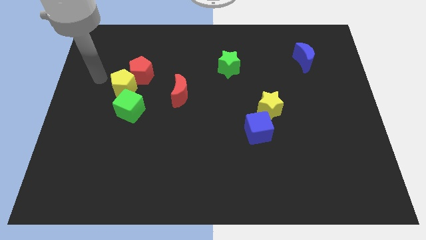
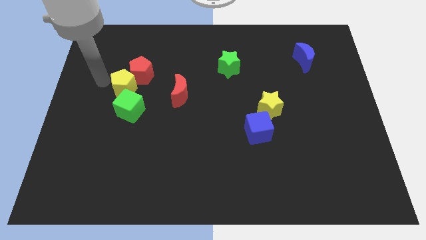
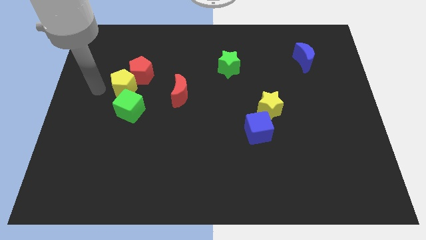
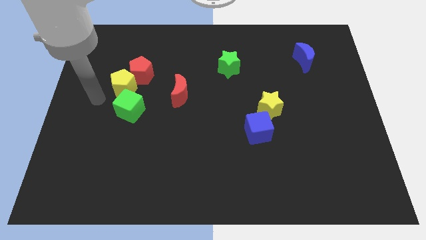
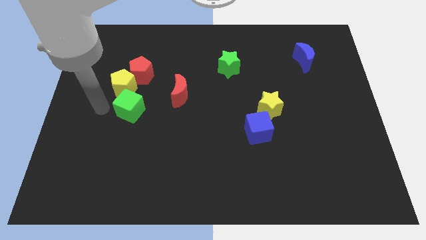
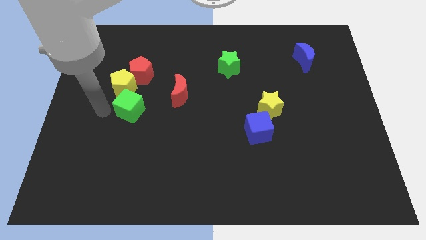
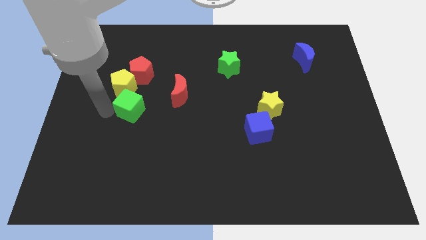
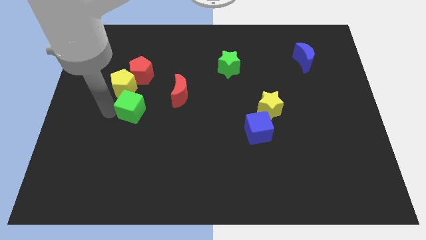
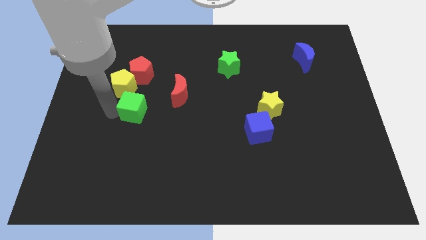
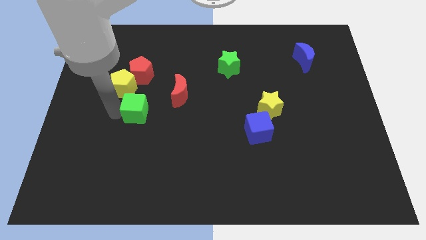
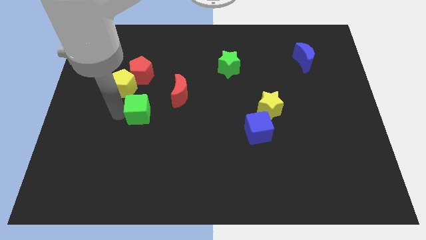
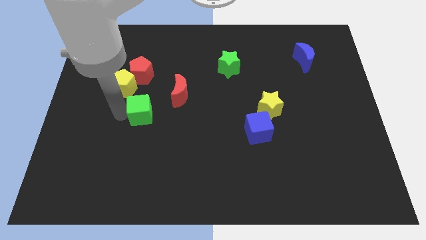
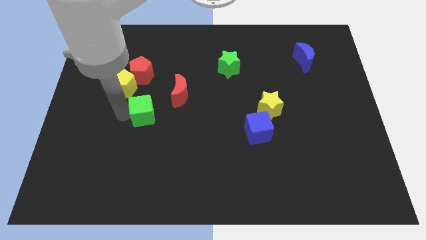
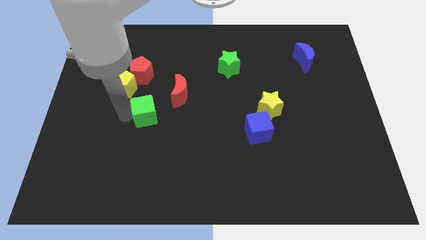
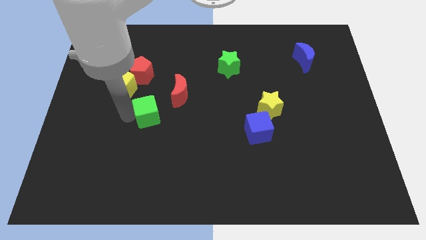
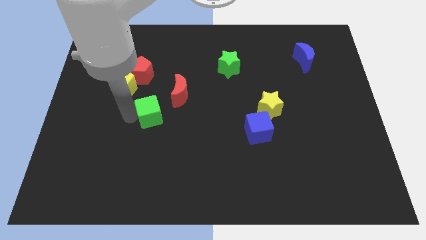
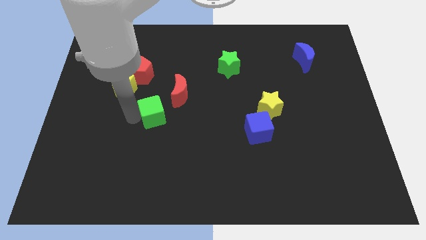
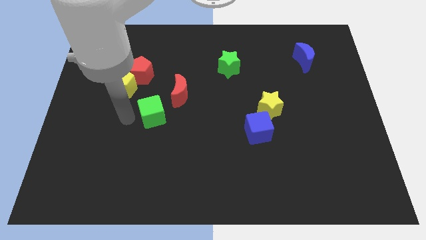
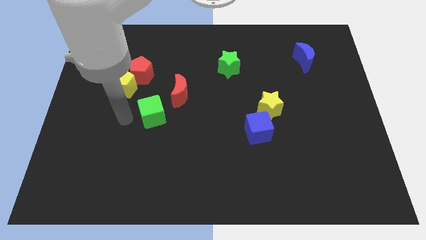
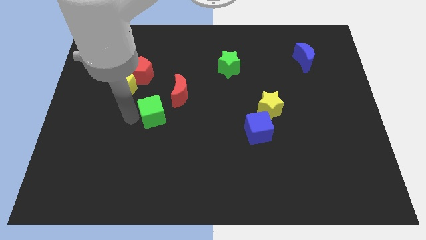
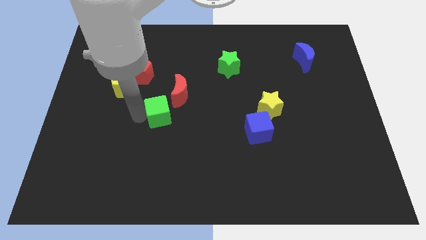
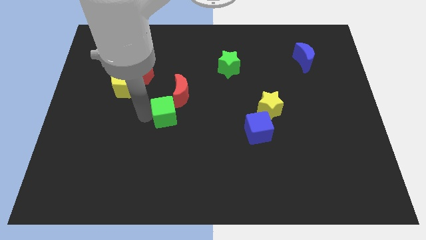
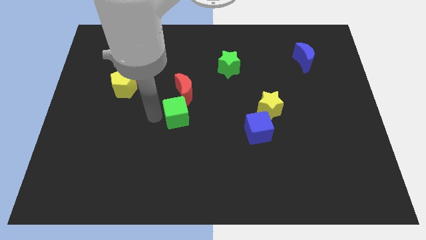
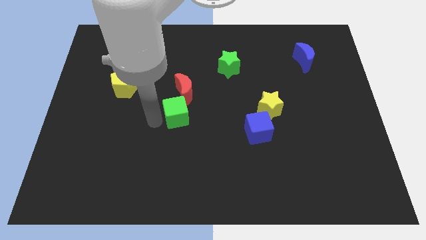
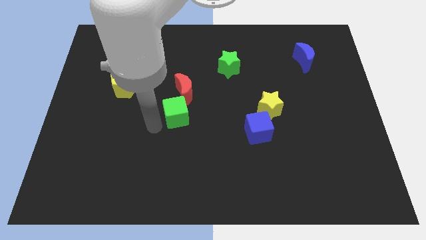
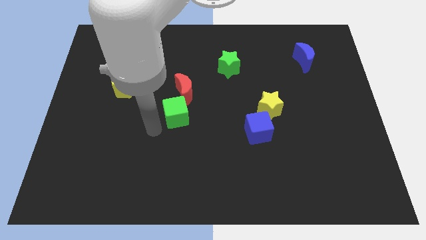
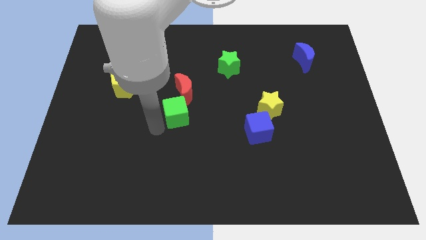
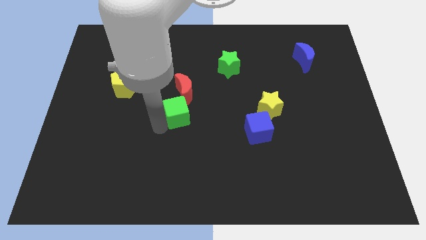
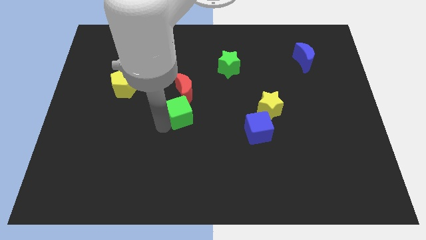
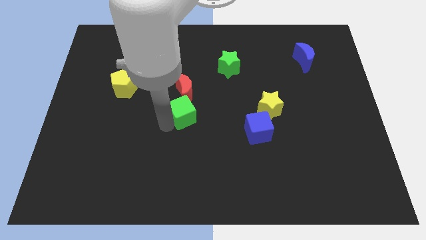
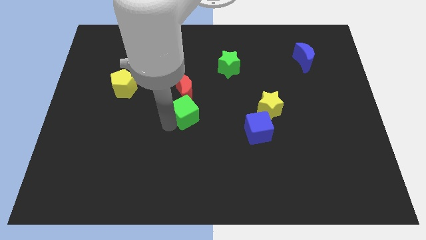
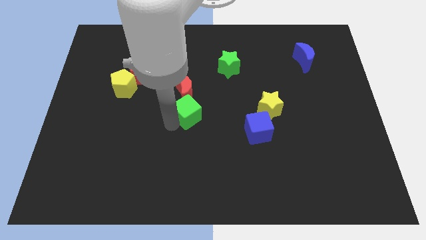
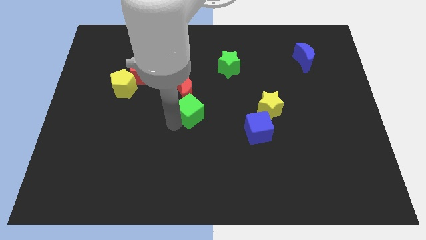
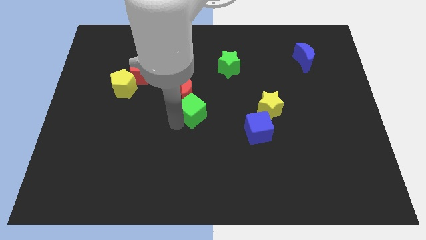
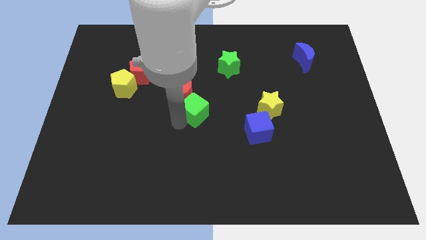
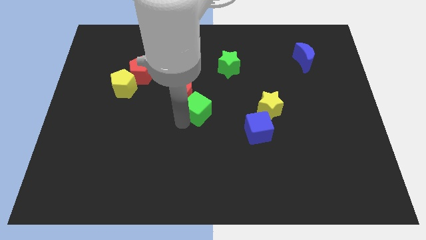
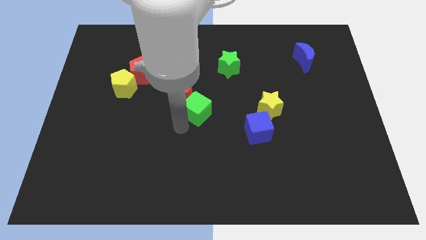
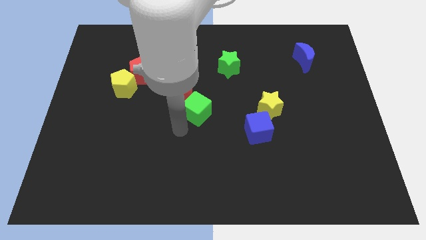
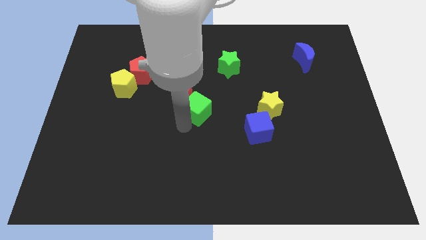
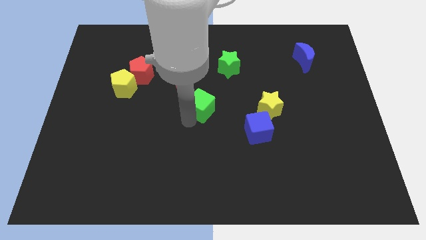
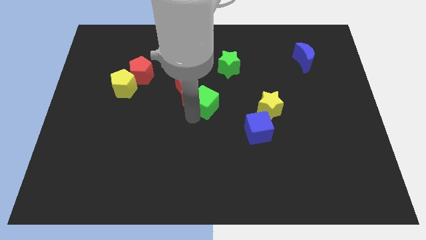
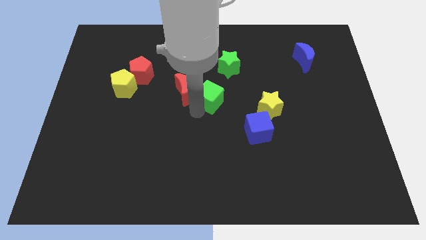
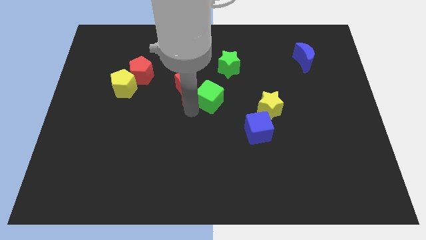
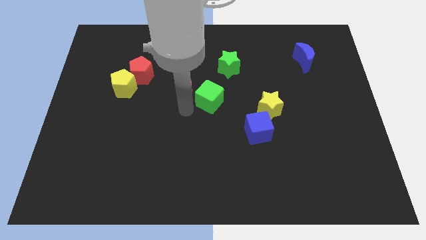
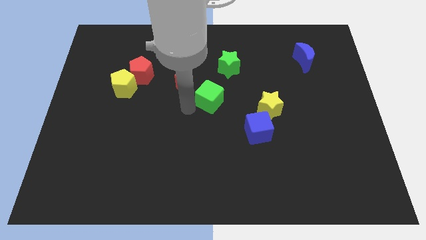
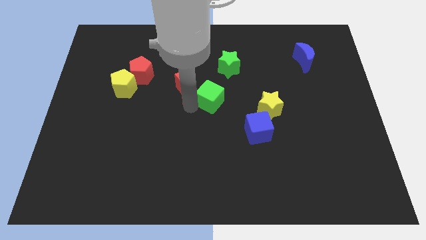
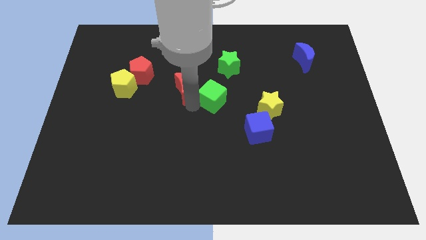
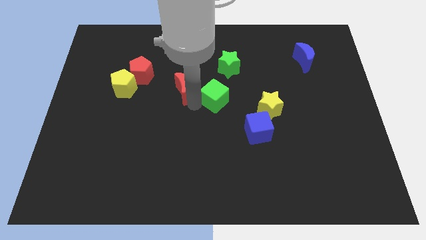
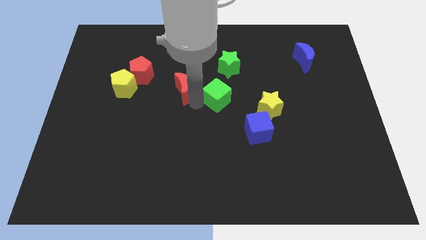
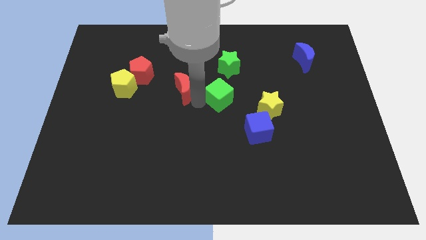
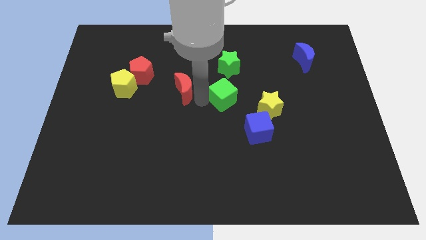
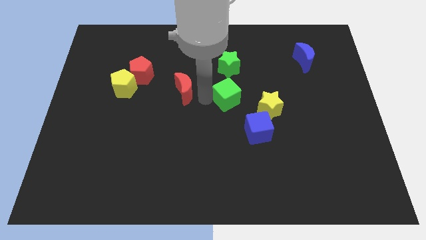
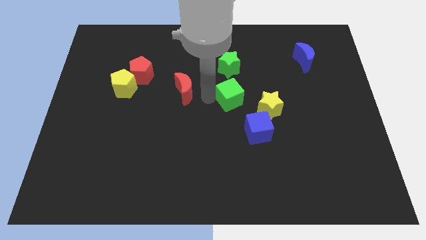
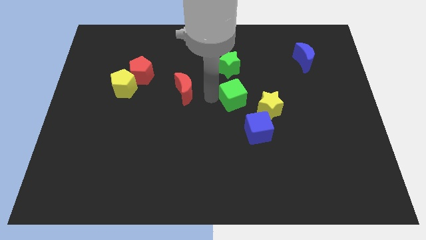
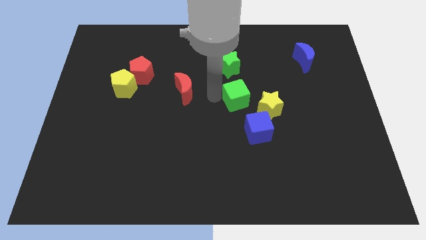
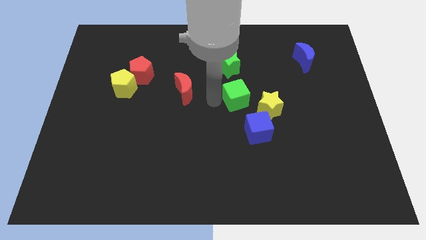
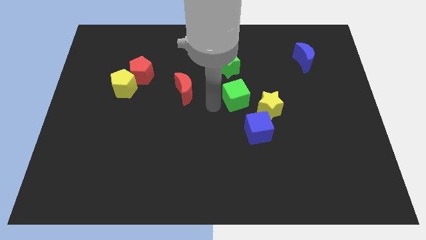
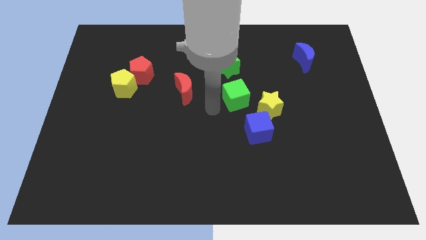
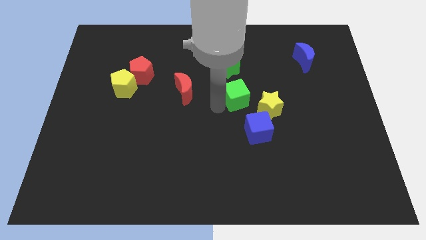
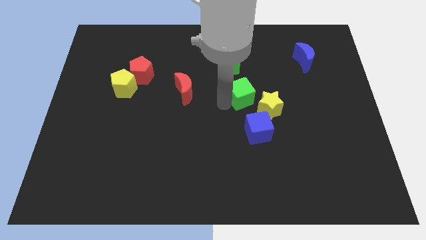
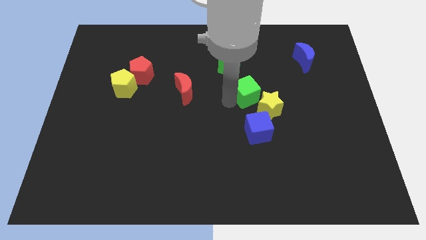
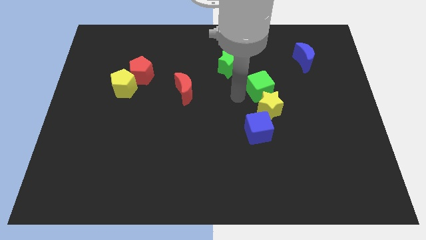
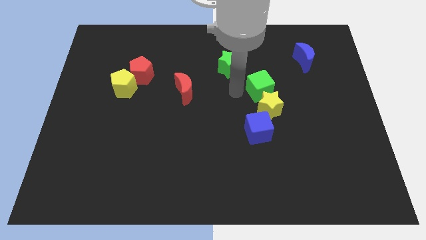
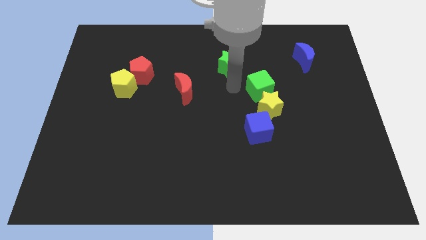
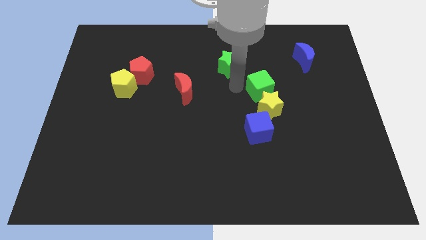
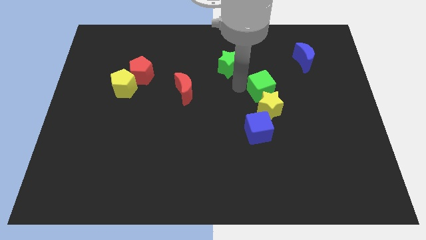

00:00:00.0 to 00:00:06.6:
slide the green cube to the top right of the yellow star

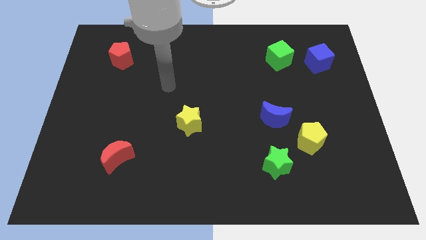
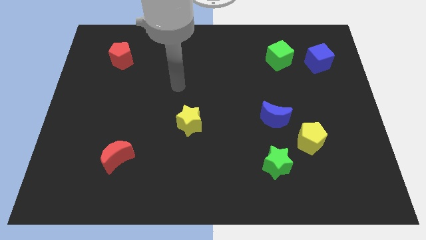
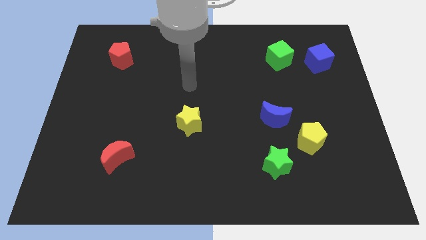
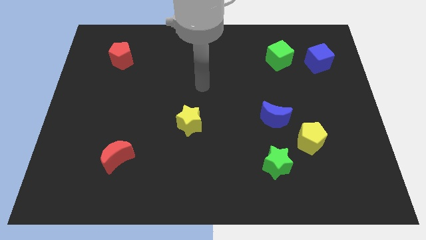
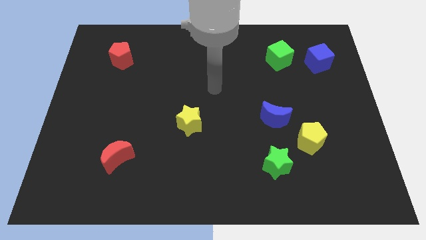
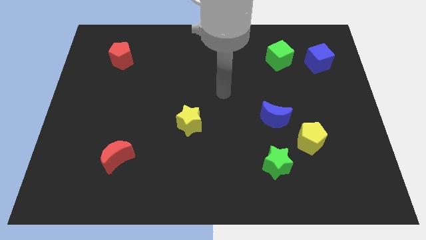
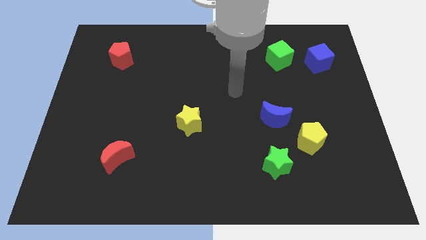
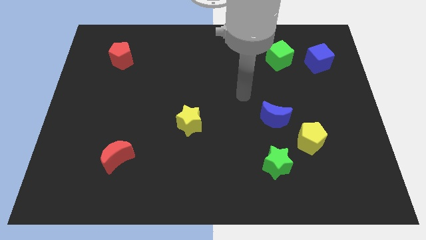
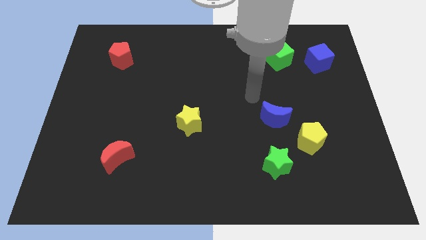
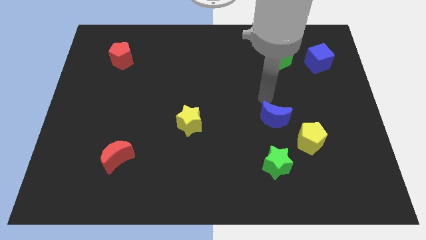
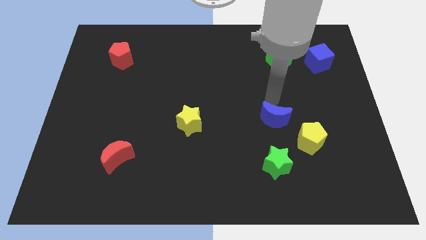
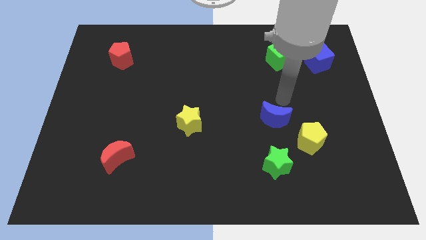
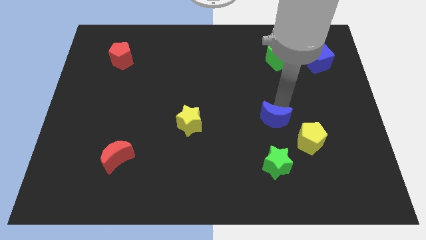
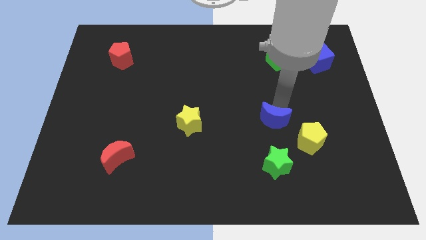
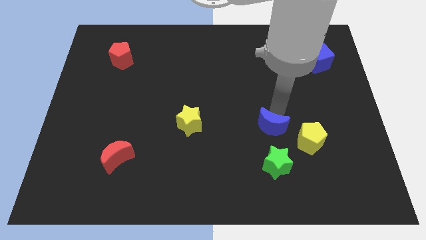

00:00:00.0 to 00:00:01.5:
move the blue moon to the left side of the yellow pentagon
